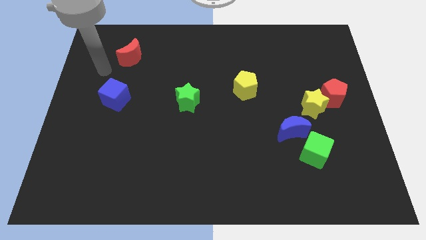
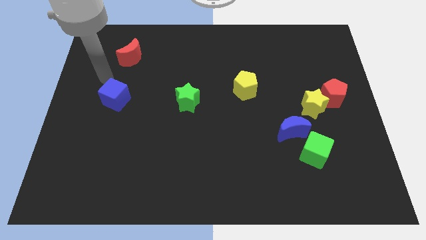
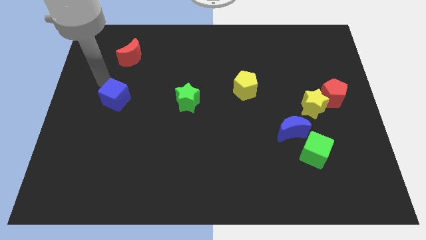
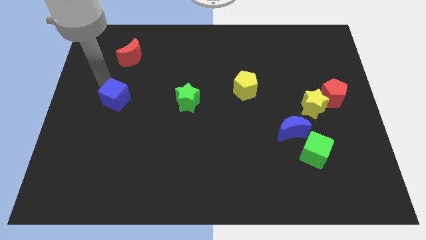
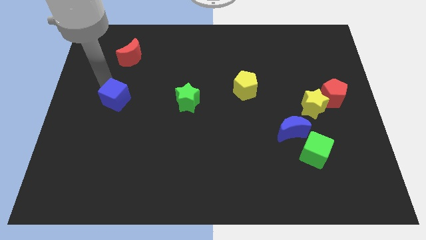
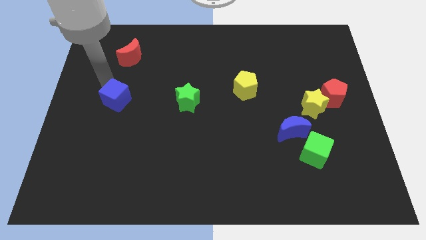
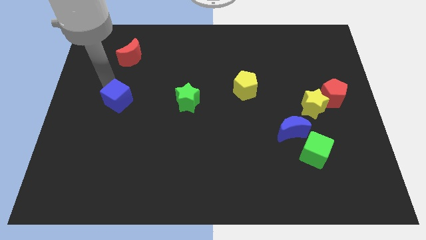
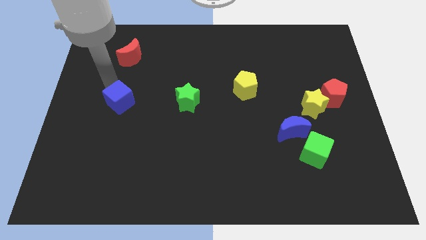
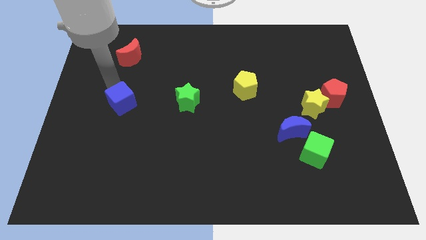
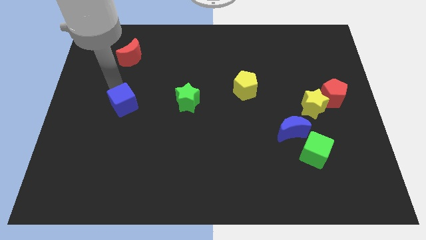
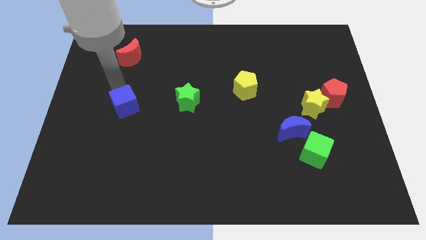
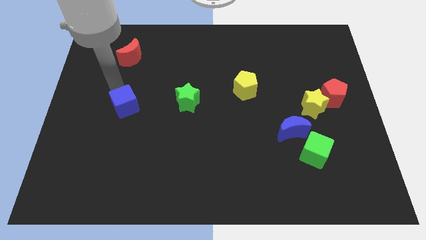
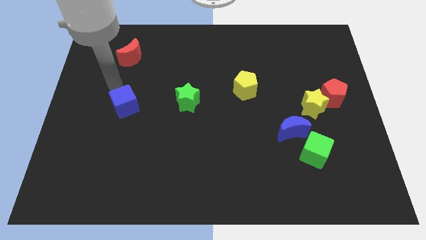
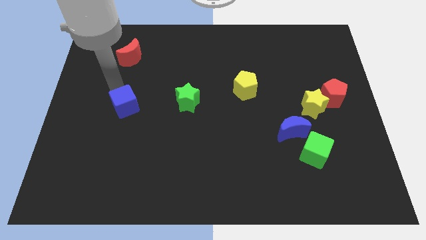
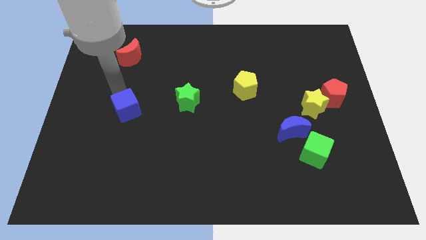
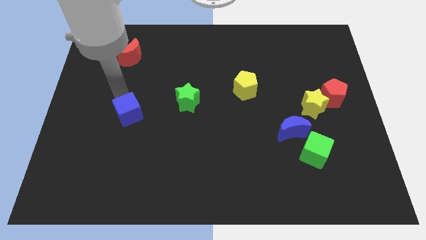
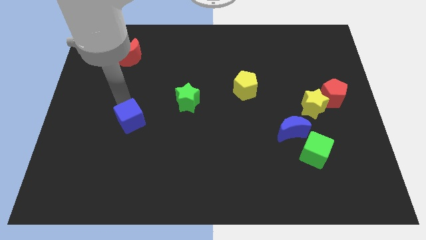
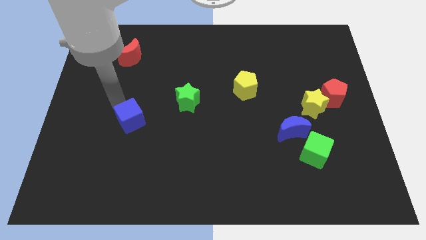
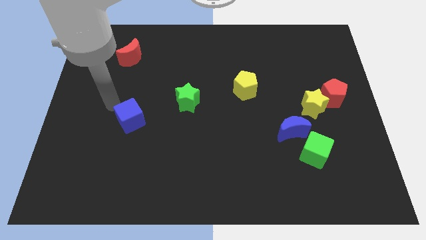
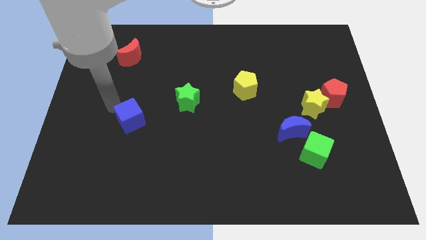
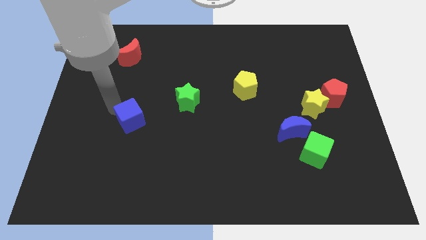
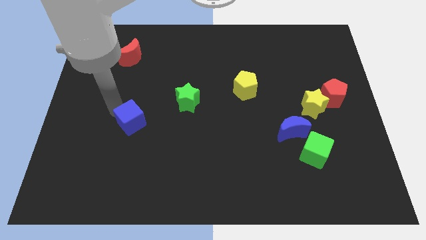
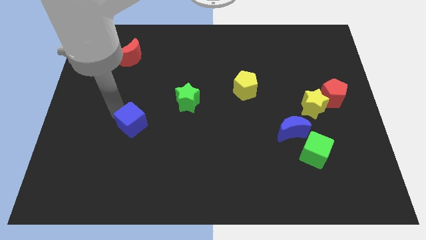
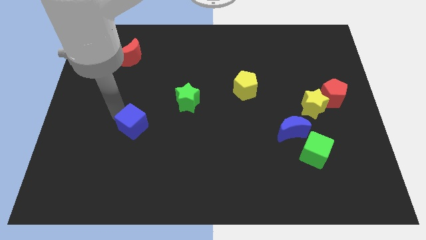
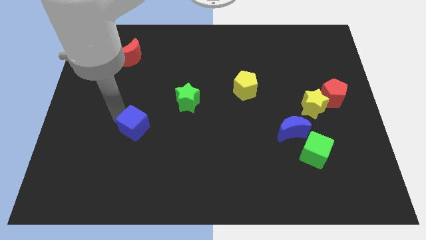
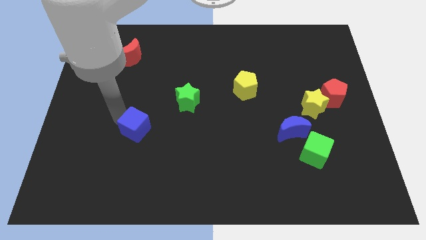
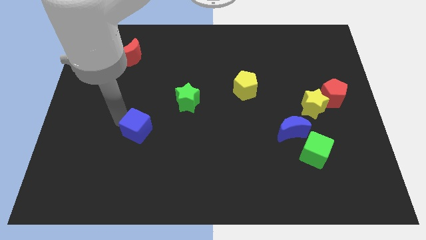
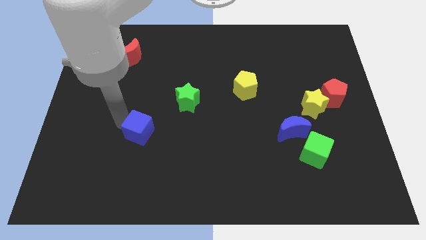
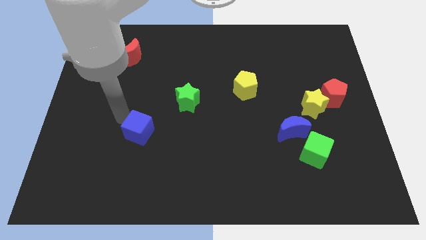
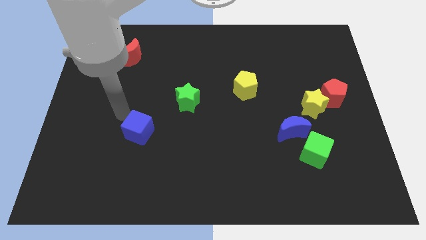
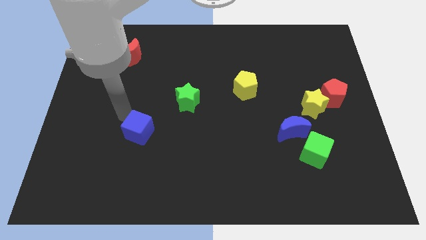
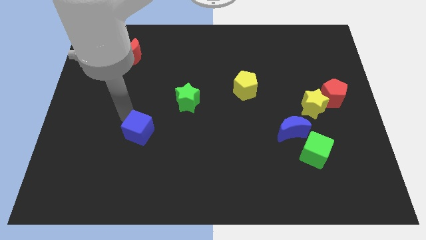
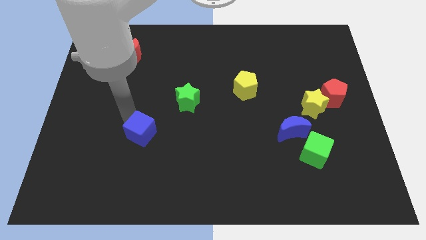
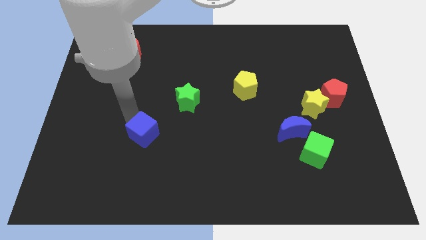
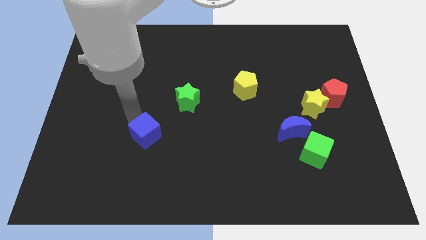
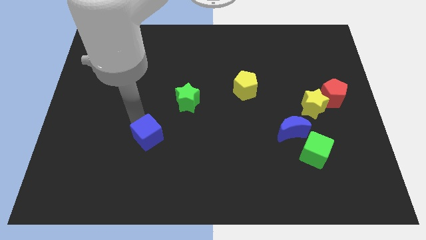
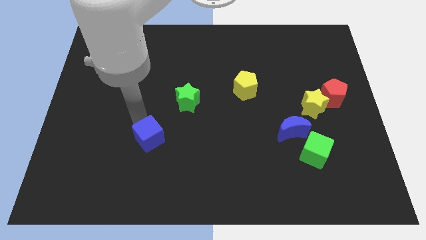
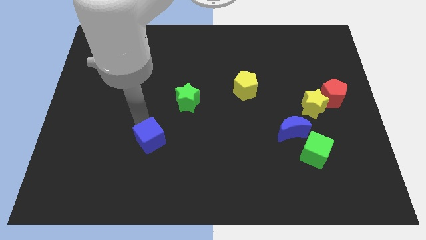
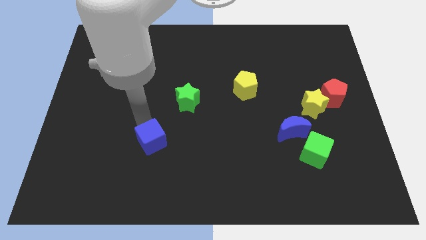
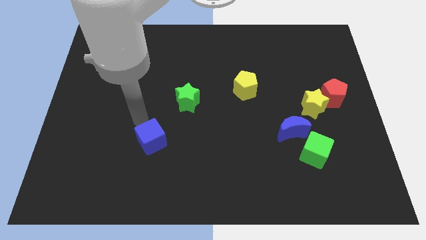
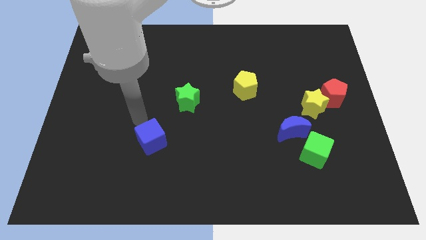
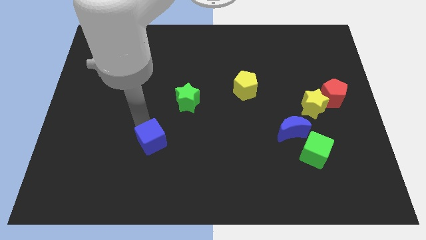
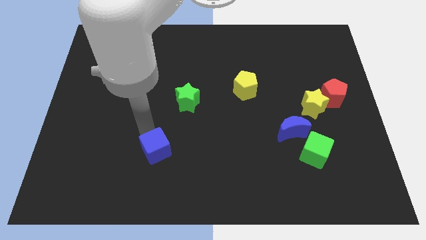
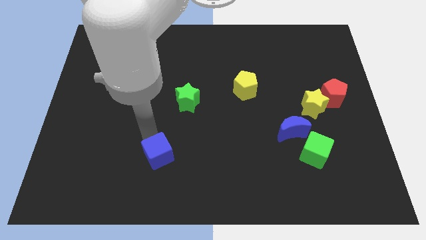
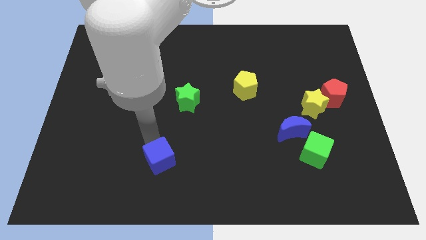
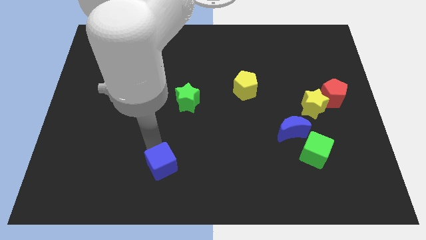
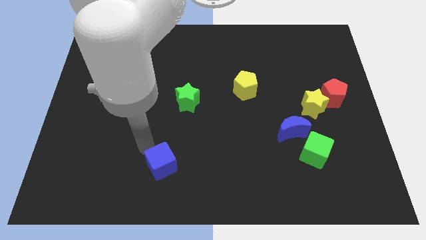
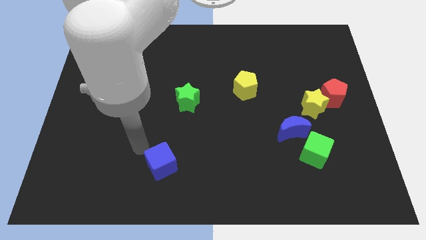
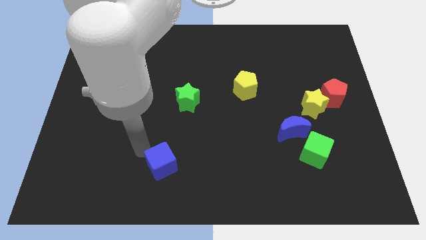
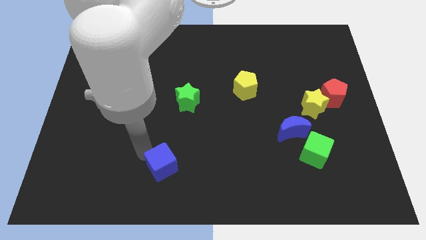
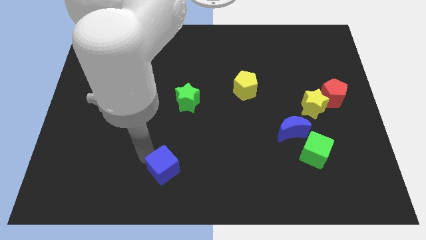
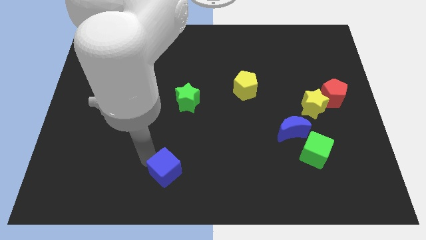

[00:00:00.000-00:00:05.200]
move the blue cube to the bottom side

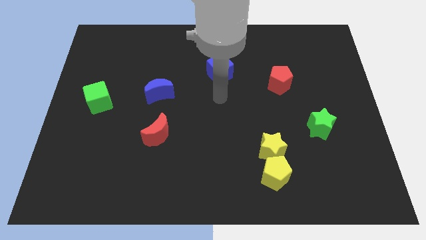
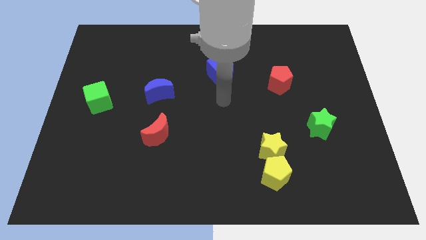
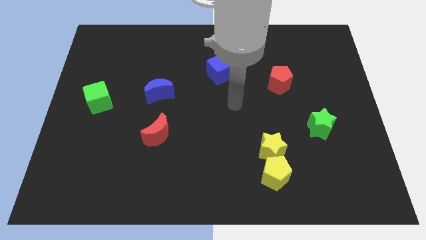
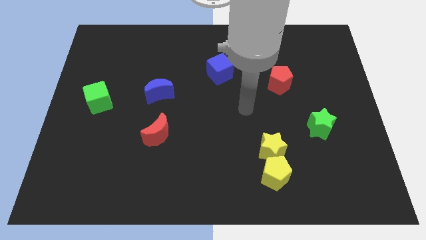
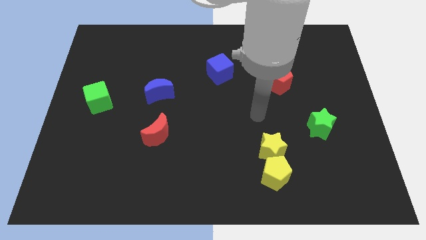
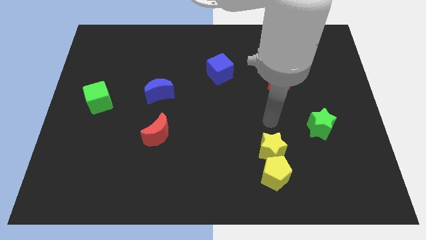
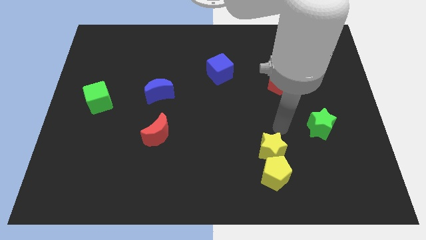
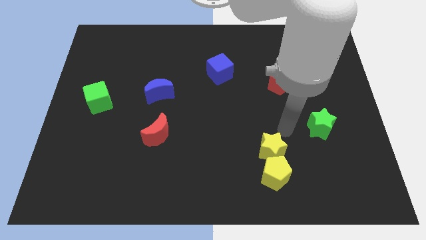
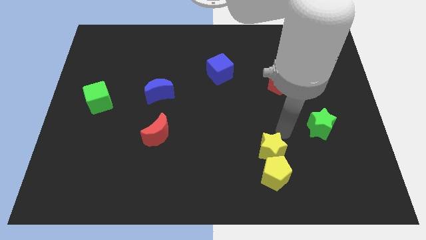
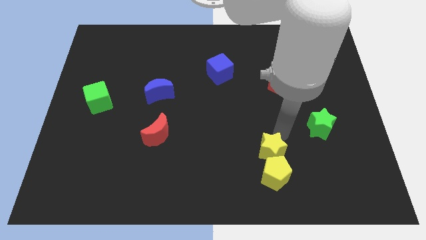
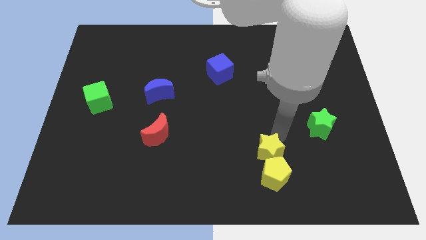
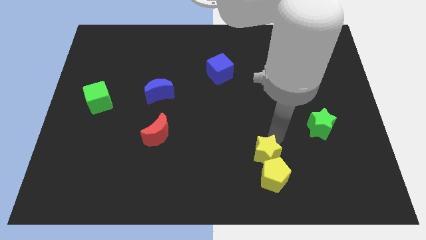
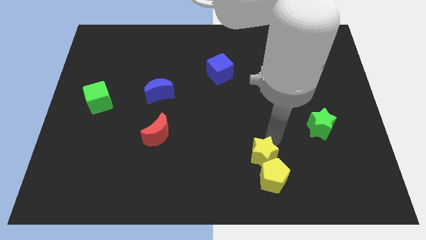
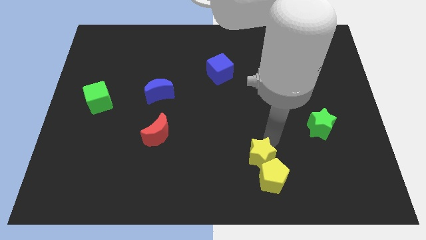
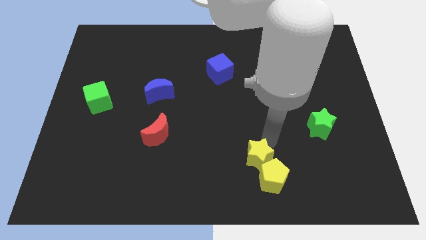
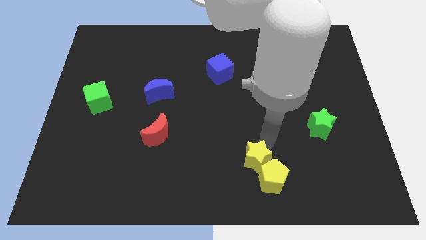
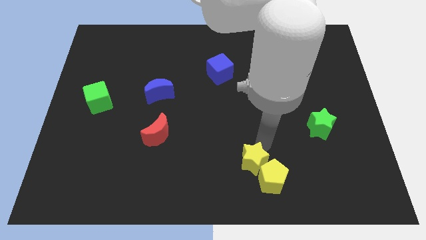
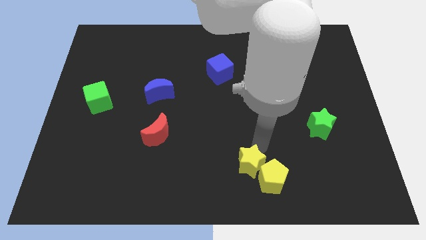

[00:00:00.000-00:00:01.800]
slide the yellow star to the bottom
